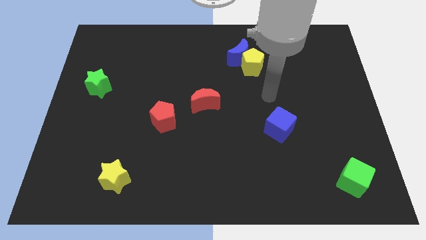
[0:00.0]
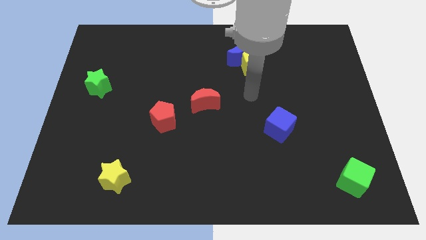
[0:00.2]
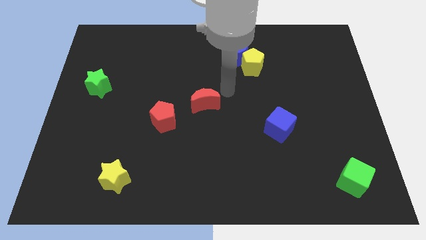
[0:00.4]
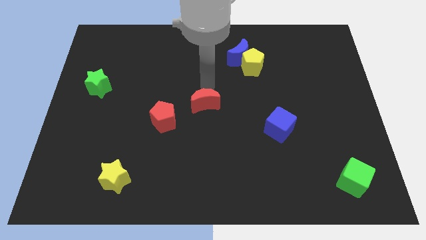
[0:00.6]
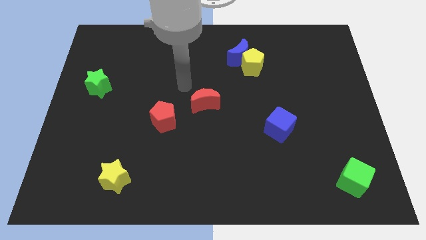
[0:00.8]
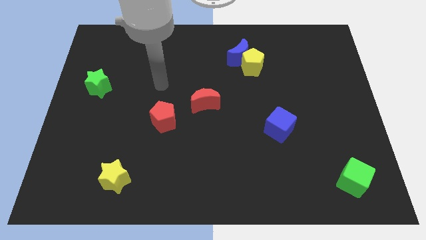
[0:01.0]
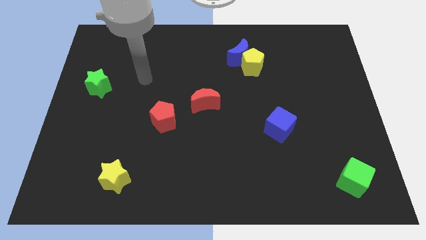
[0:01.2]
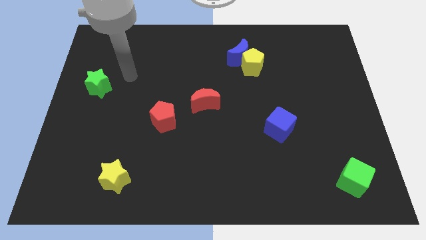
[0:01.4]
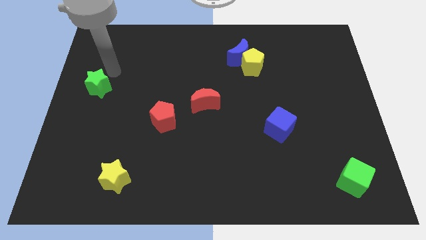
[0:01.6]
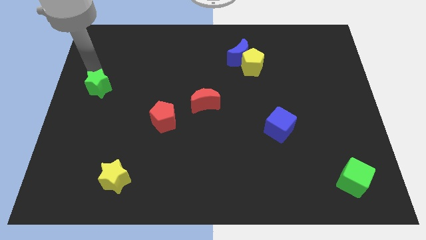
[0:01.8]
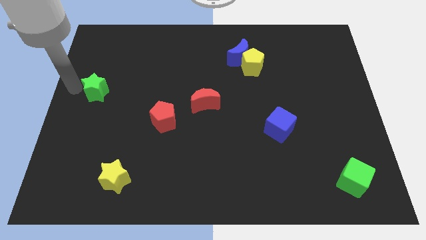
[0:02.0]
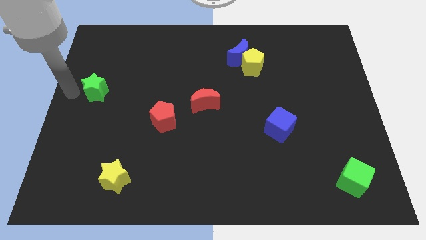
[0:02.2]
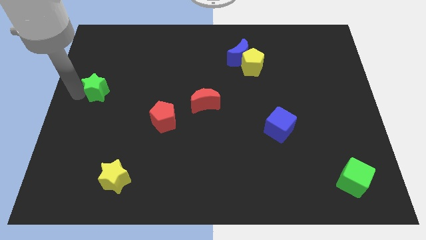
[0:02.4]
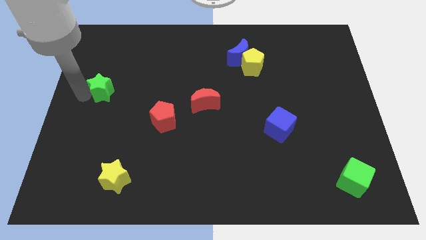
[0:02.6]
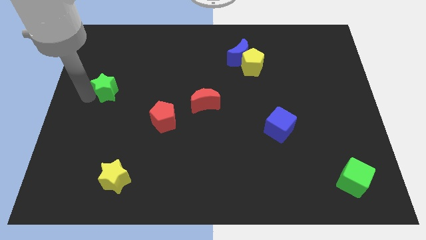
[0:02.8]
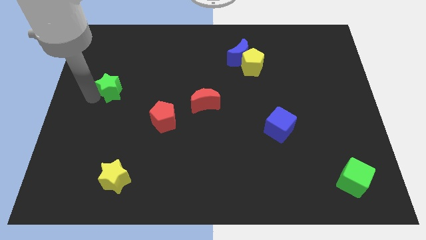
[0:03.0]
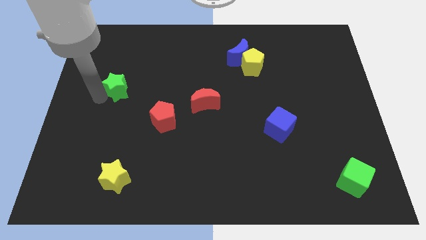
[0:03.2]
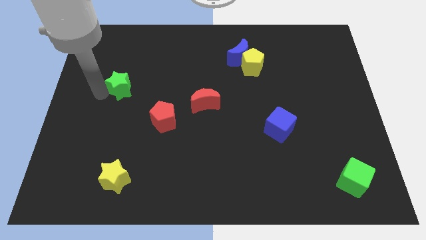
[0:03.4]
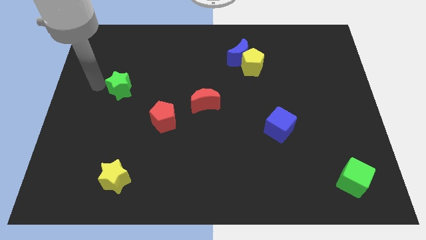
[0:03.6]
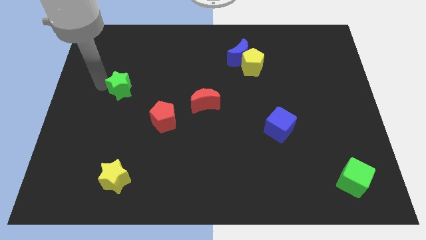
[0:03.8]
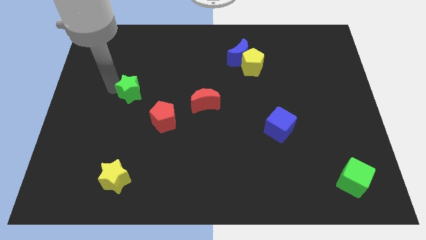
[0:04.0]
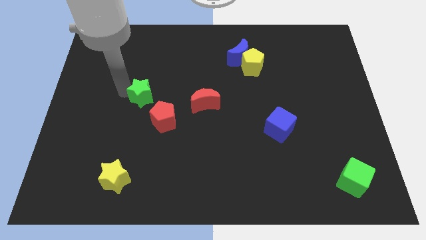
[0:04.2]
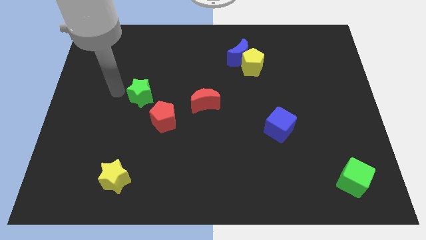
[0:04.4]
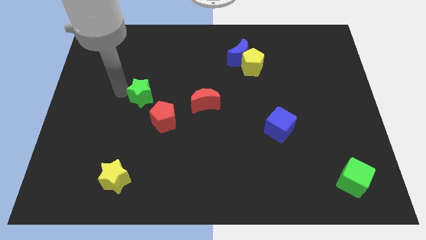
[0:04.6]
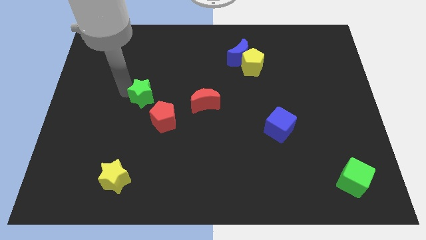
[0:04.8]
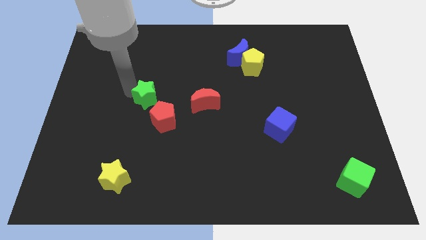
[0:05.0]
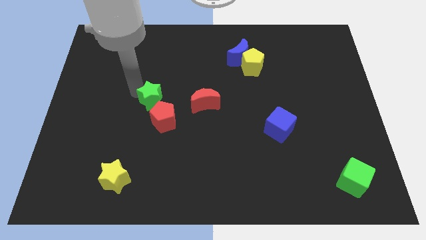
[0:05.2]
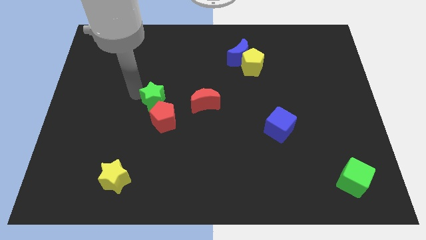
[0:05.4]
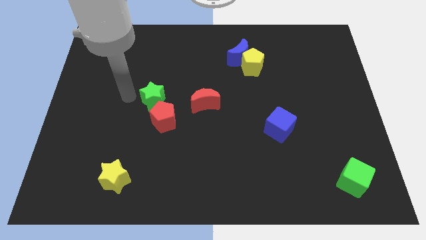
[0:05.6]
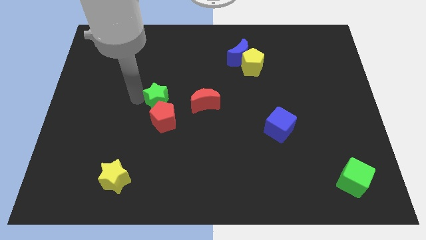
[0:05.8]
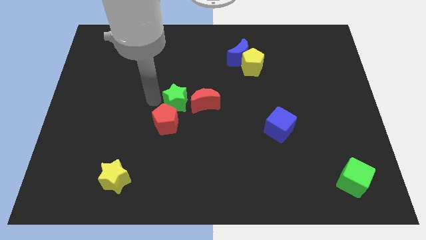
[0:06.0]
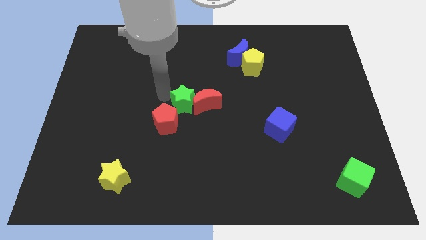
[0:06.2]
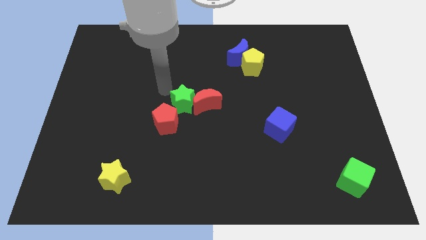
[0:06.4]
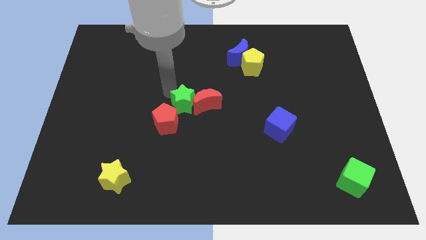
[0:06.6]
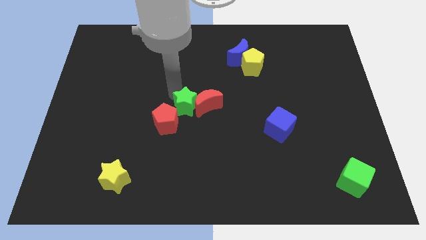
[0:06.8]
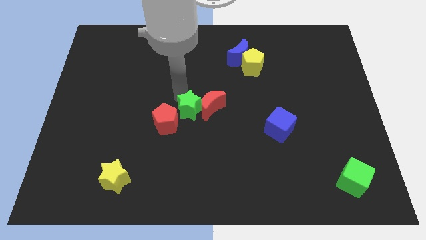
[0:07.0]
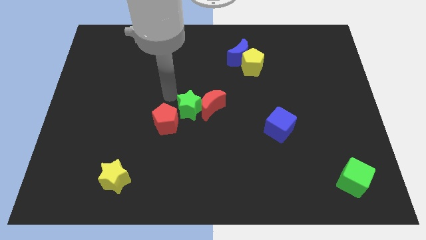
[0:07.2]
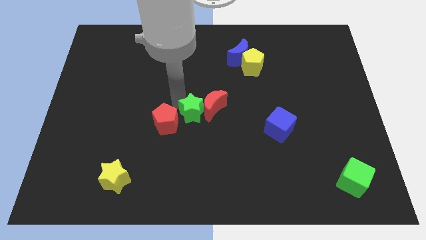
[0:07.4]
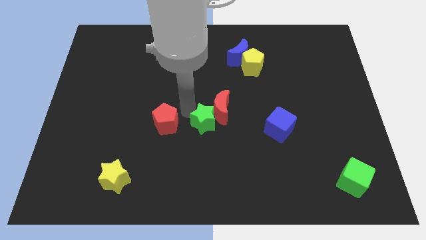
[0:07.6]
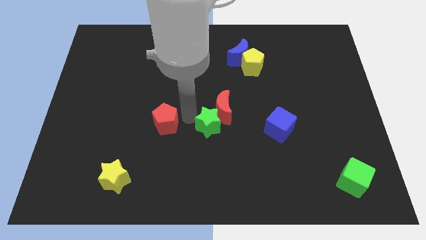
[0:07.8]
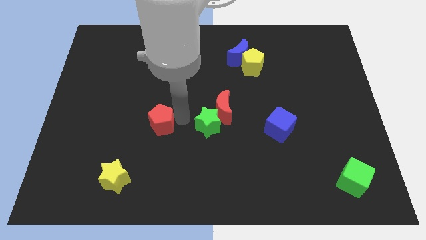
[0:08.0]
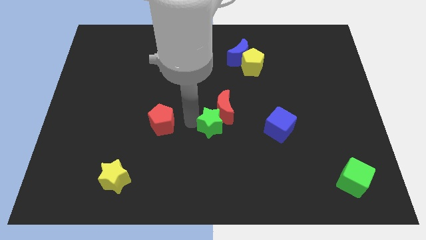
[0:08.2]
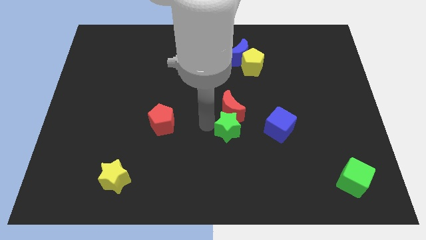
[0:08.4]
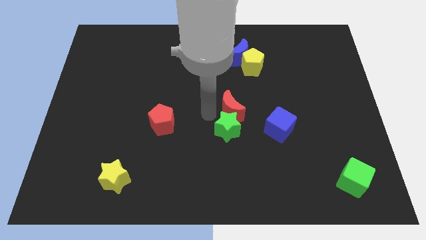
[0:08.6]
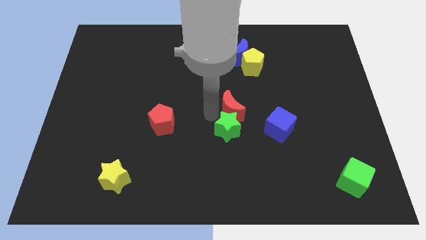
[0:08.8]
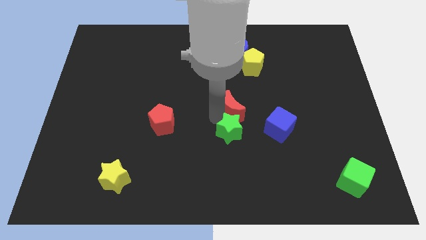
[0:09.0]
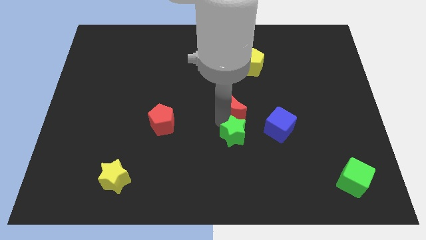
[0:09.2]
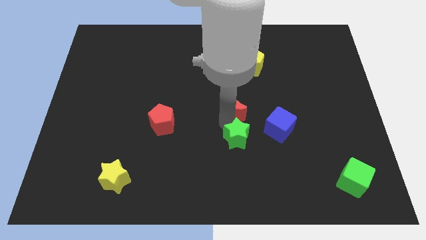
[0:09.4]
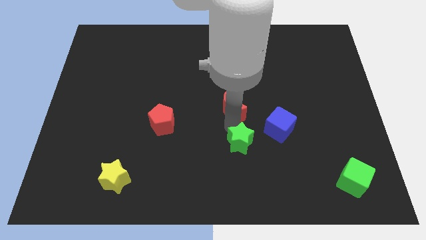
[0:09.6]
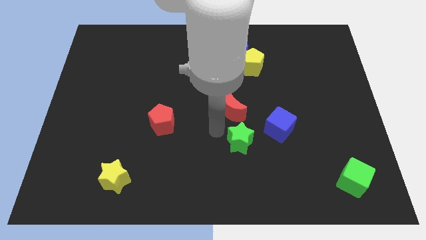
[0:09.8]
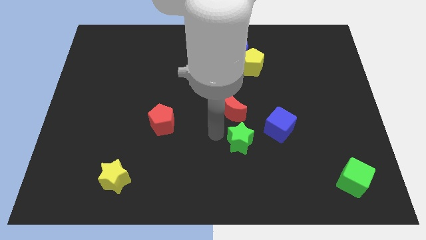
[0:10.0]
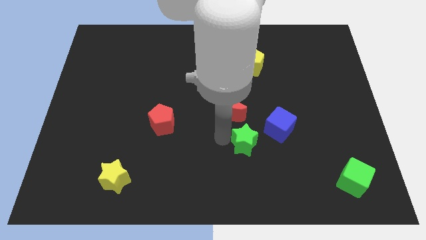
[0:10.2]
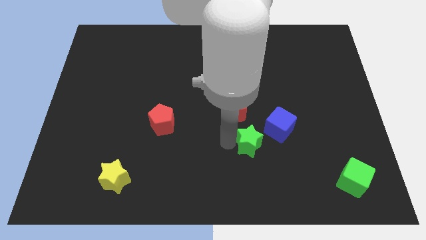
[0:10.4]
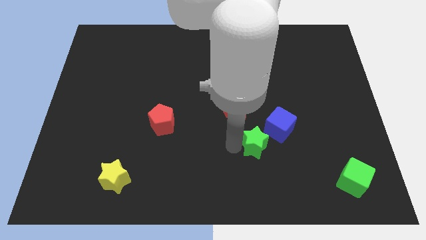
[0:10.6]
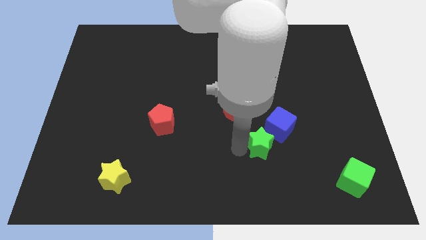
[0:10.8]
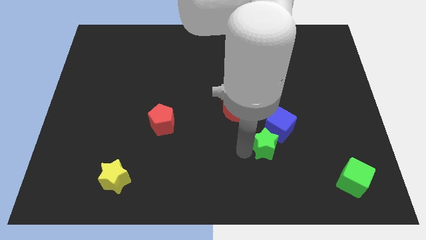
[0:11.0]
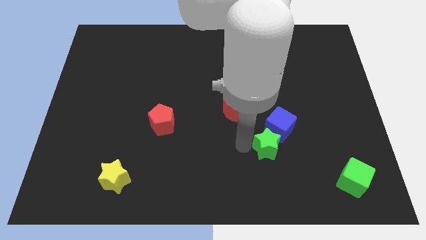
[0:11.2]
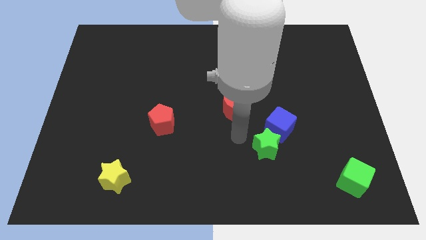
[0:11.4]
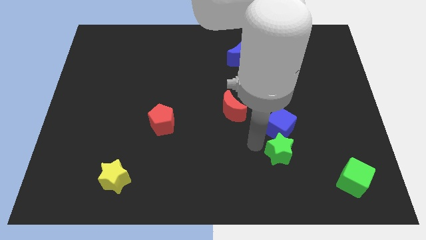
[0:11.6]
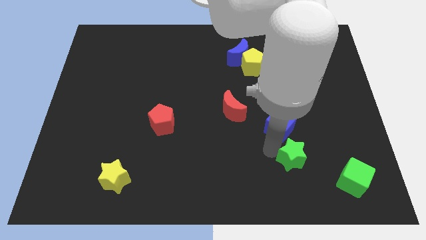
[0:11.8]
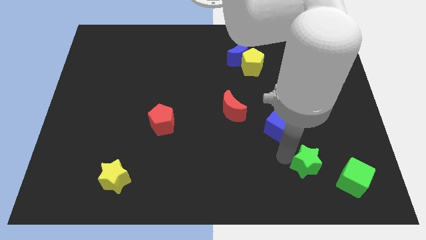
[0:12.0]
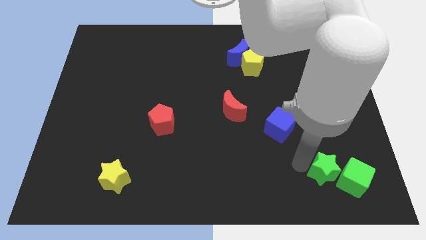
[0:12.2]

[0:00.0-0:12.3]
push the green star towards the green cube
